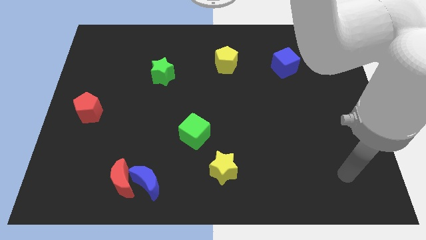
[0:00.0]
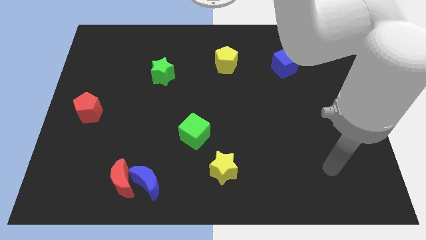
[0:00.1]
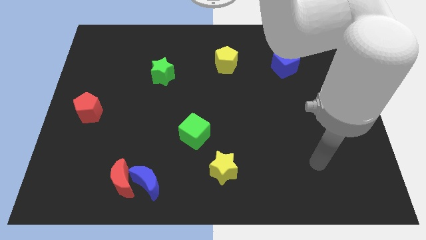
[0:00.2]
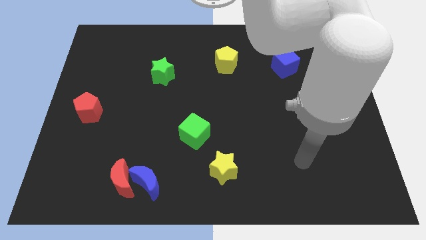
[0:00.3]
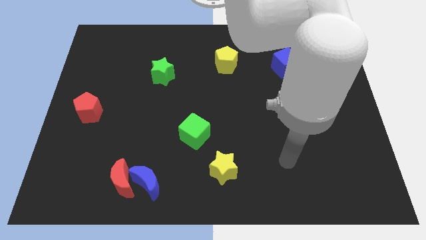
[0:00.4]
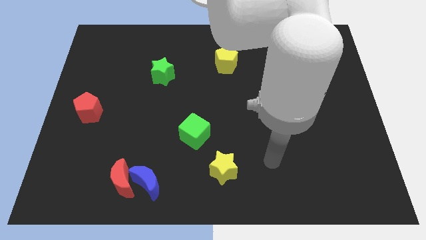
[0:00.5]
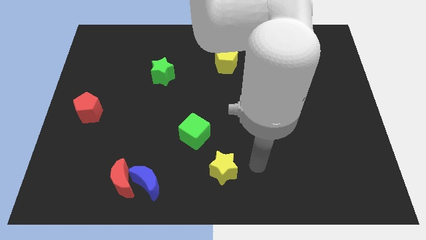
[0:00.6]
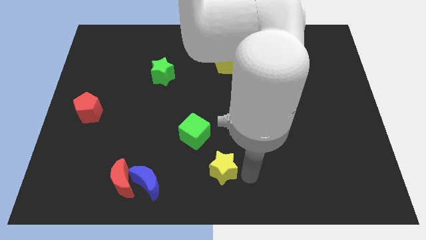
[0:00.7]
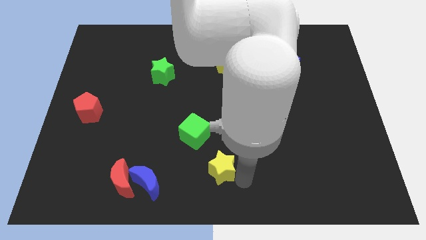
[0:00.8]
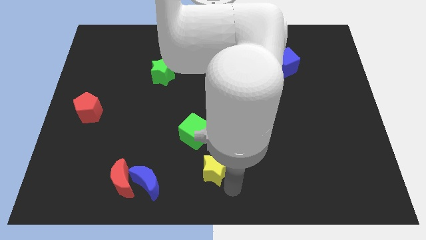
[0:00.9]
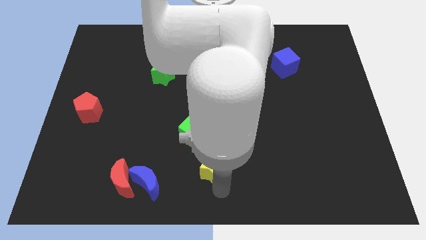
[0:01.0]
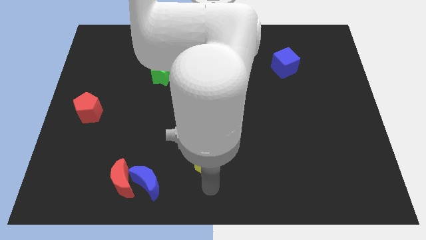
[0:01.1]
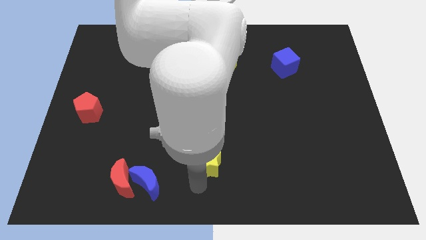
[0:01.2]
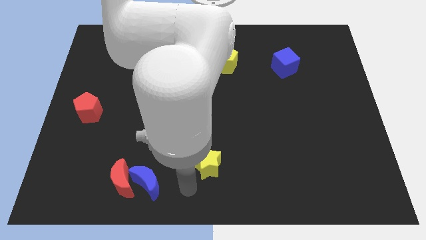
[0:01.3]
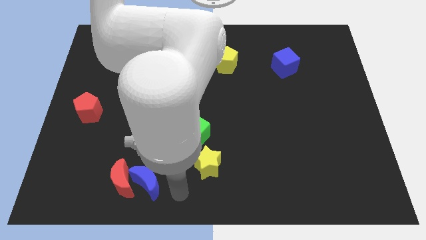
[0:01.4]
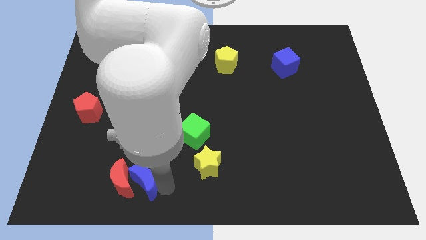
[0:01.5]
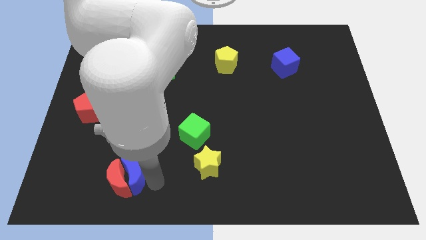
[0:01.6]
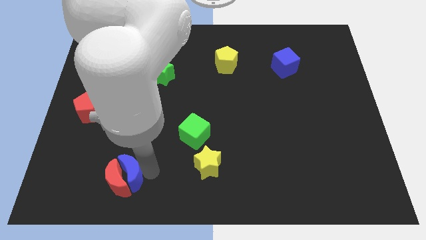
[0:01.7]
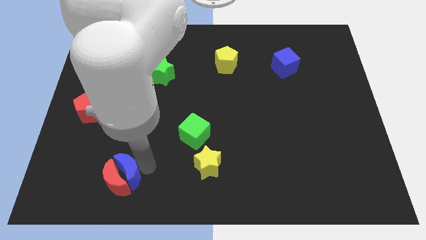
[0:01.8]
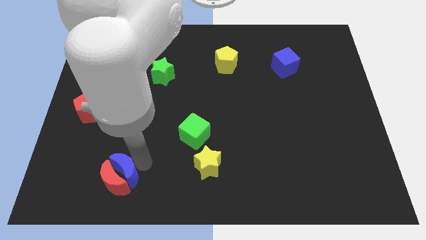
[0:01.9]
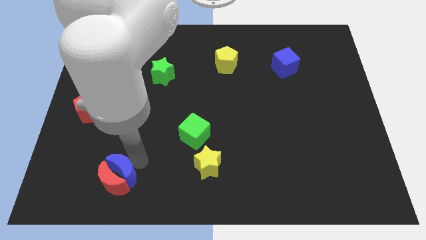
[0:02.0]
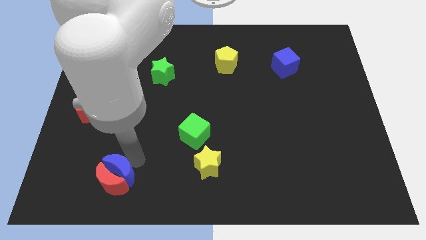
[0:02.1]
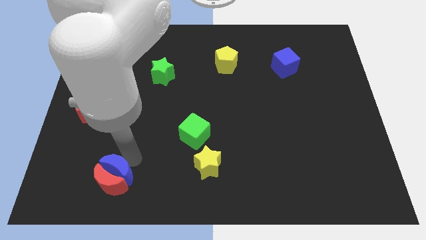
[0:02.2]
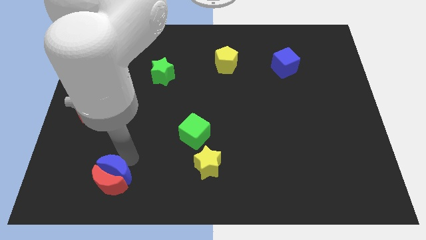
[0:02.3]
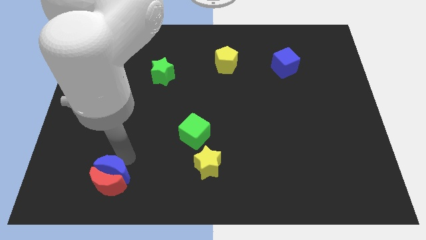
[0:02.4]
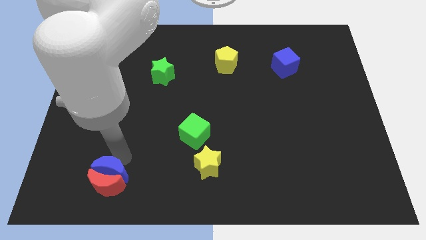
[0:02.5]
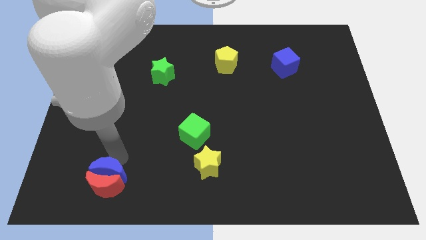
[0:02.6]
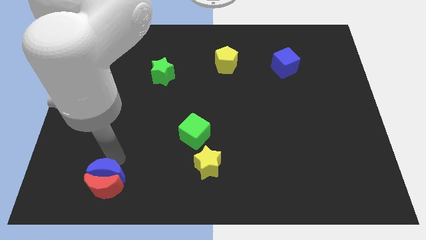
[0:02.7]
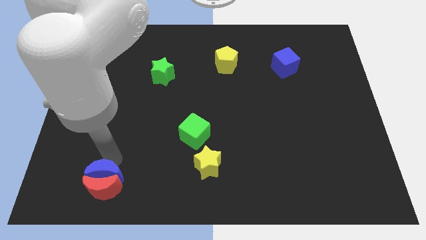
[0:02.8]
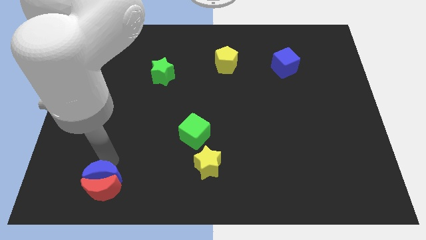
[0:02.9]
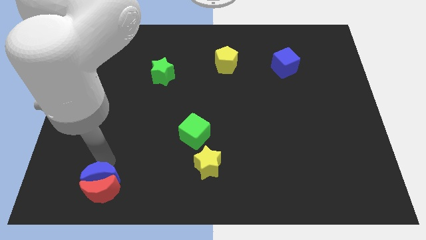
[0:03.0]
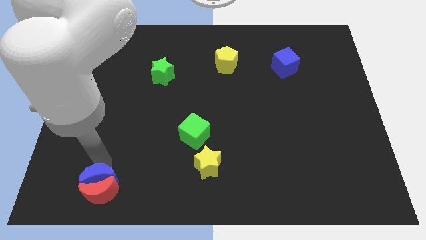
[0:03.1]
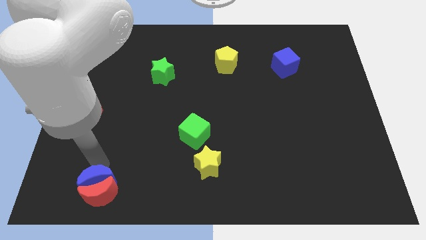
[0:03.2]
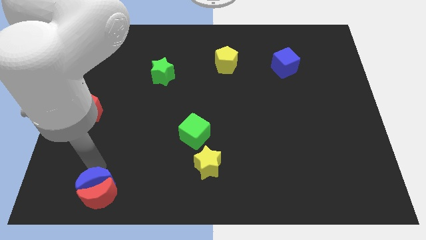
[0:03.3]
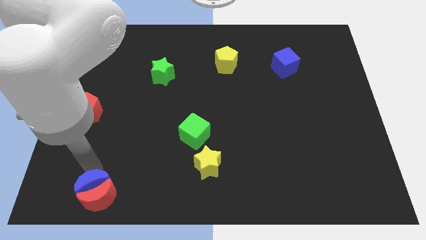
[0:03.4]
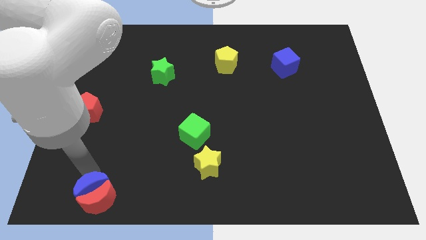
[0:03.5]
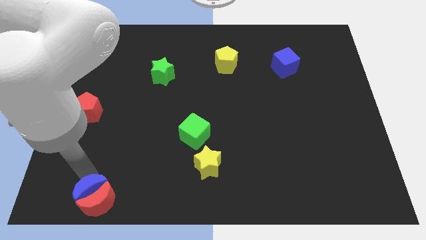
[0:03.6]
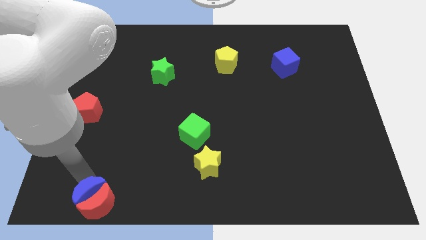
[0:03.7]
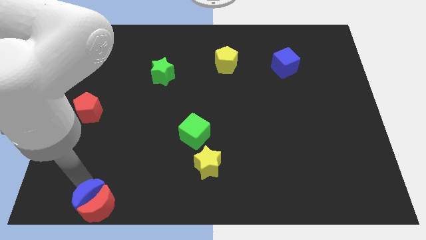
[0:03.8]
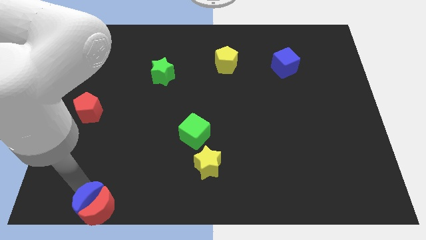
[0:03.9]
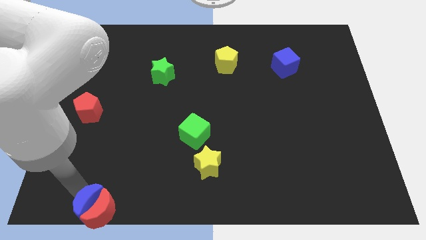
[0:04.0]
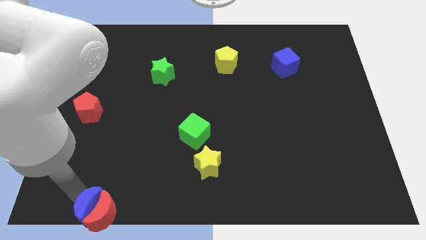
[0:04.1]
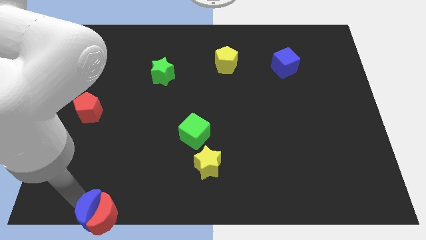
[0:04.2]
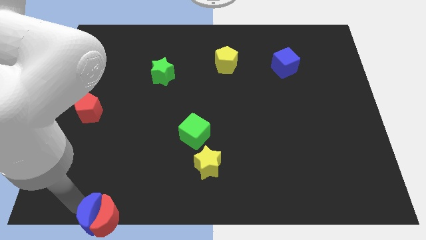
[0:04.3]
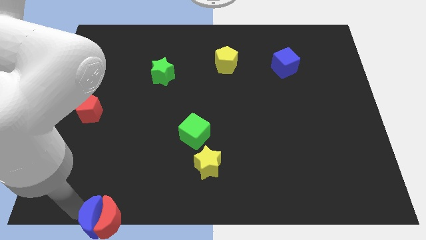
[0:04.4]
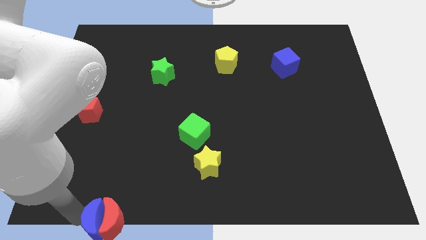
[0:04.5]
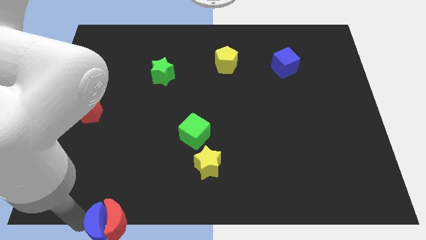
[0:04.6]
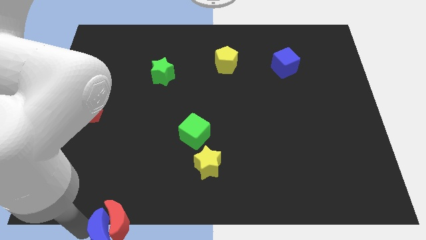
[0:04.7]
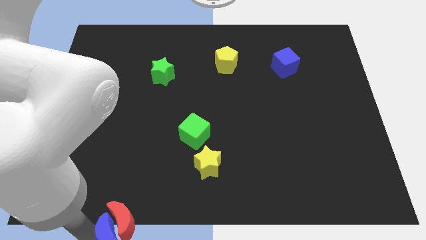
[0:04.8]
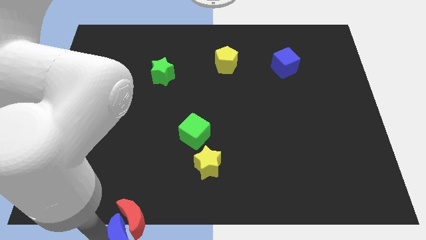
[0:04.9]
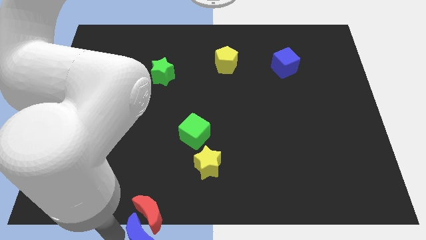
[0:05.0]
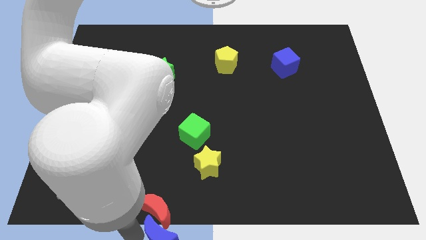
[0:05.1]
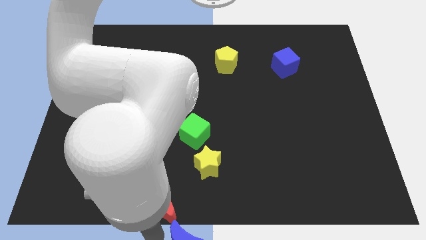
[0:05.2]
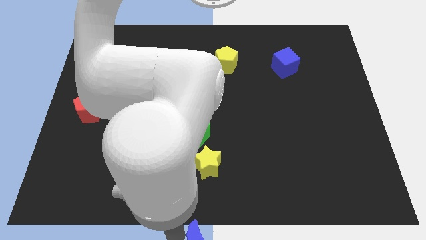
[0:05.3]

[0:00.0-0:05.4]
pull the red moon apart from the blue moon

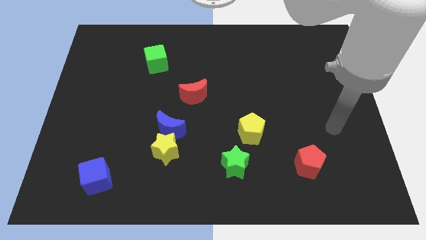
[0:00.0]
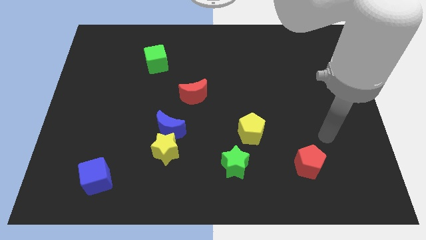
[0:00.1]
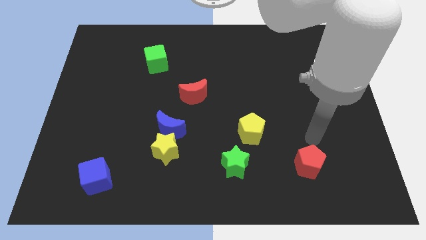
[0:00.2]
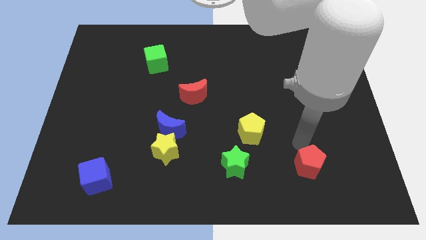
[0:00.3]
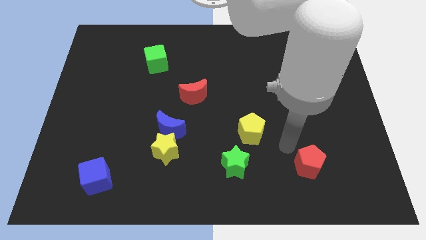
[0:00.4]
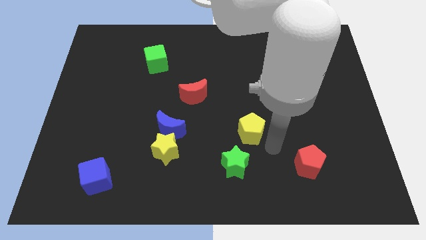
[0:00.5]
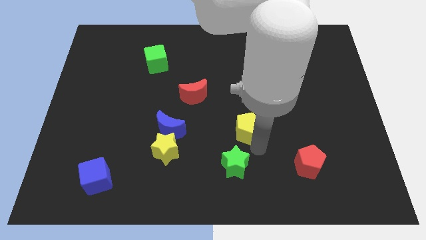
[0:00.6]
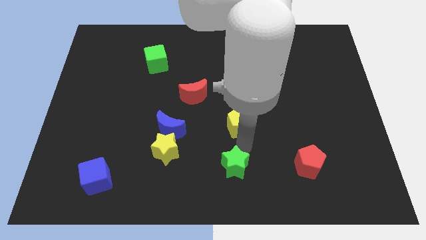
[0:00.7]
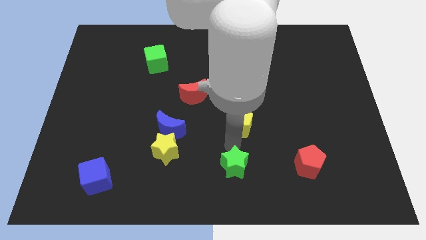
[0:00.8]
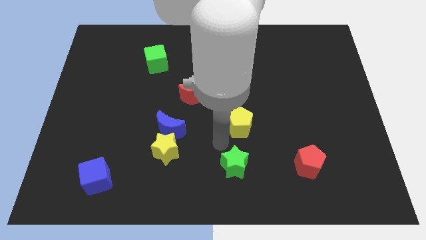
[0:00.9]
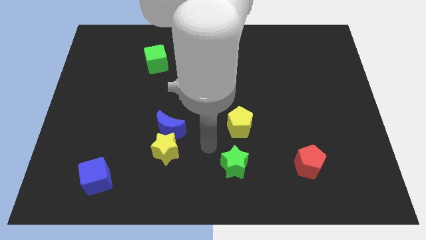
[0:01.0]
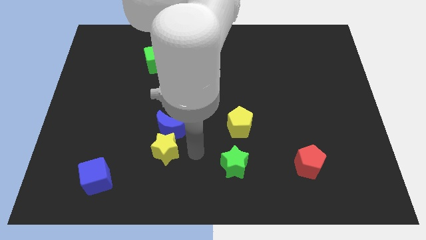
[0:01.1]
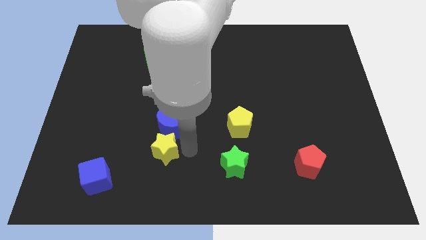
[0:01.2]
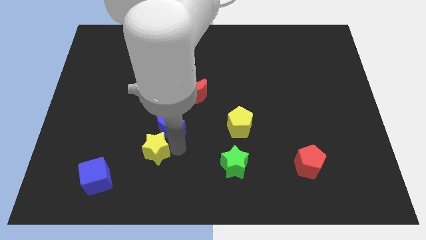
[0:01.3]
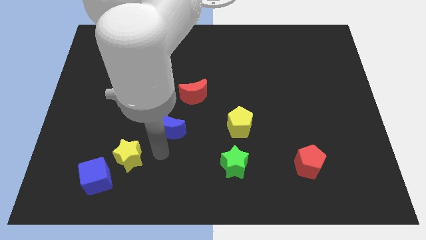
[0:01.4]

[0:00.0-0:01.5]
move the blue moon away from the yellow star

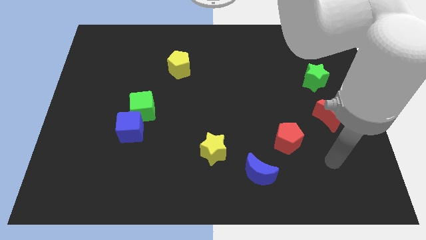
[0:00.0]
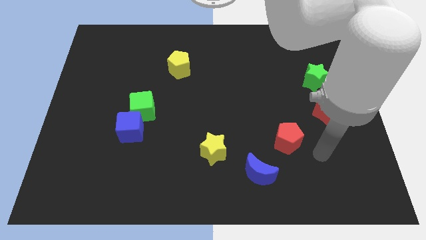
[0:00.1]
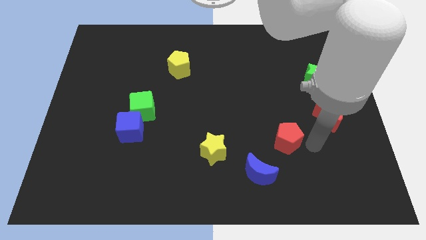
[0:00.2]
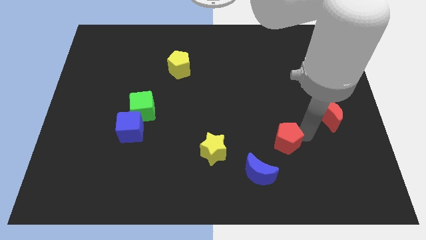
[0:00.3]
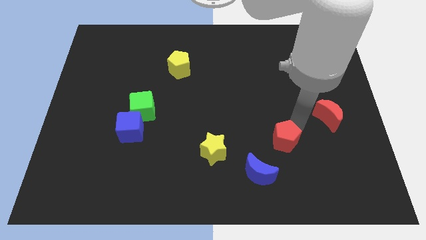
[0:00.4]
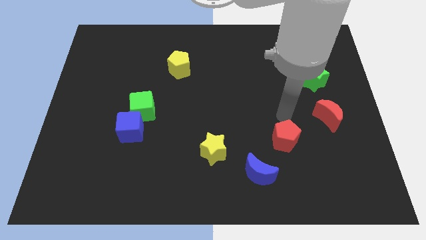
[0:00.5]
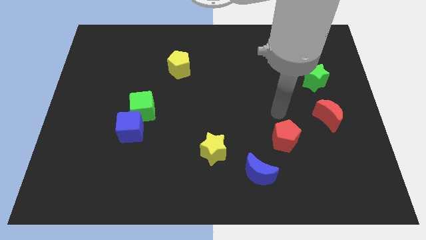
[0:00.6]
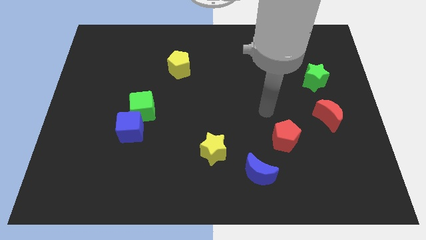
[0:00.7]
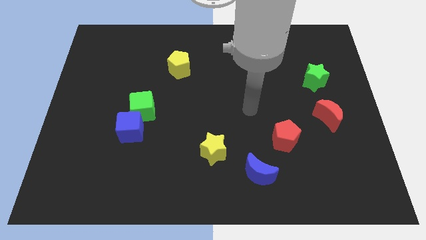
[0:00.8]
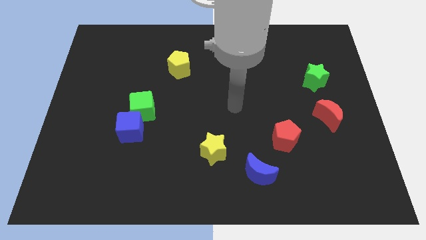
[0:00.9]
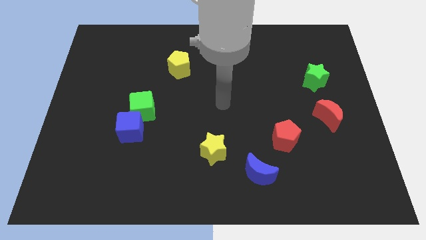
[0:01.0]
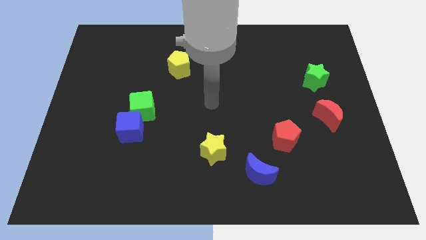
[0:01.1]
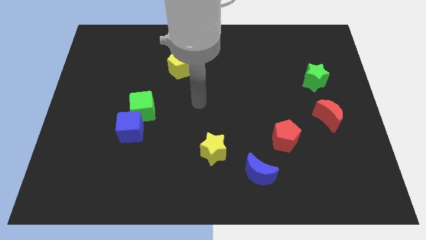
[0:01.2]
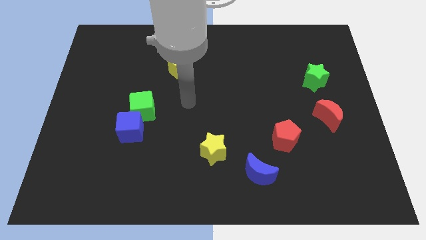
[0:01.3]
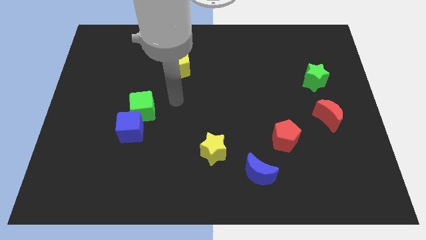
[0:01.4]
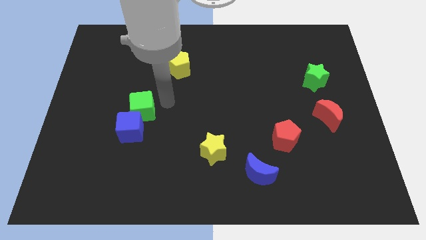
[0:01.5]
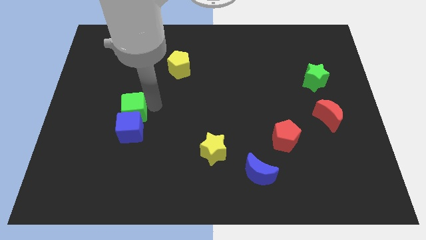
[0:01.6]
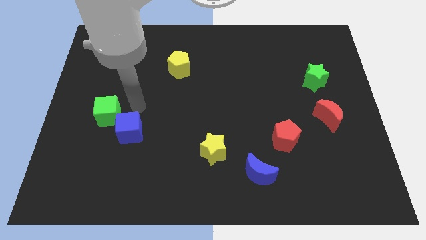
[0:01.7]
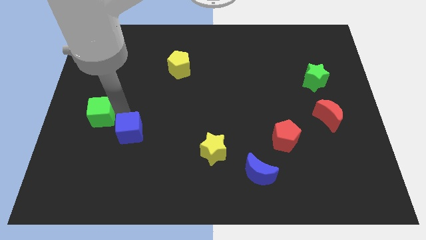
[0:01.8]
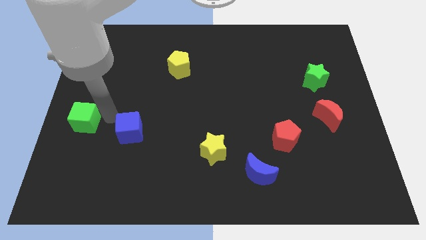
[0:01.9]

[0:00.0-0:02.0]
move the blue cube away from the green cube

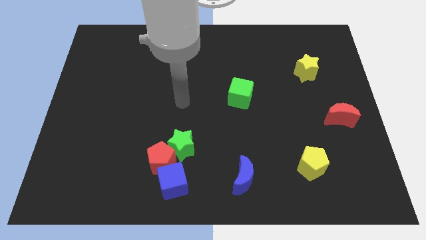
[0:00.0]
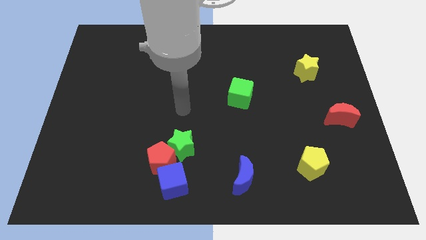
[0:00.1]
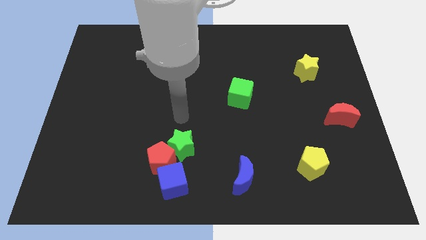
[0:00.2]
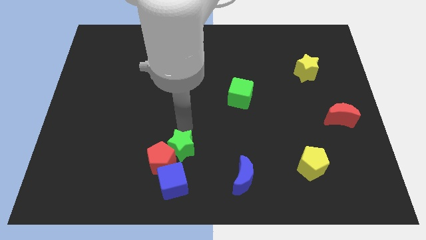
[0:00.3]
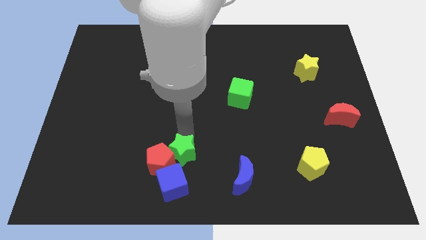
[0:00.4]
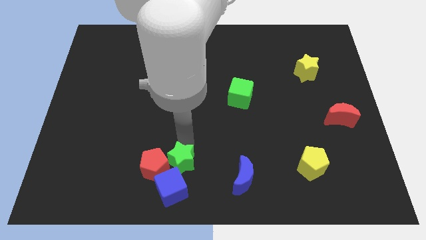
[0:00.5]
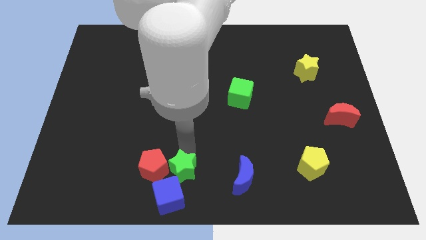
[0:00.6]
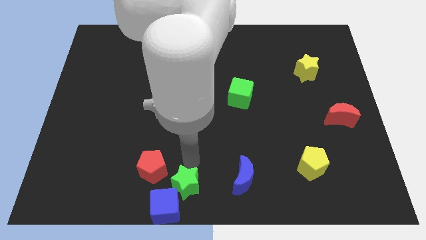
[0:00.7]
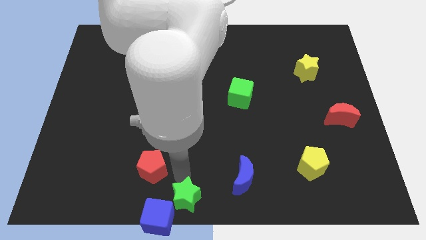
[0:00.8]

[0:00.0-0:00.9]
separate the red pentagon from the green star and blue cube
